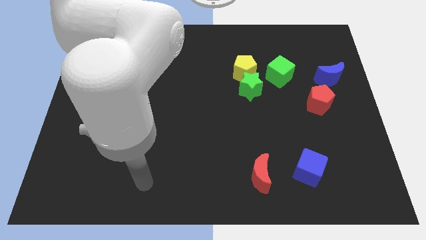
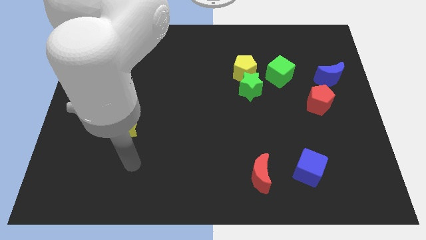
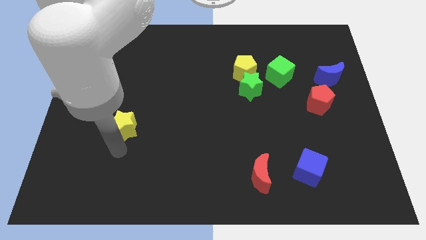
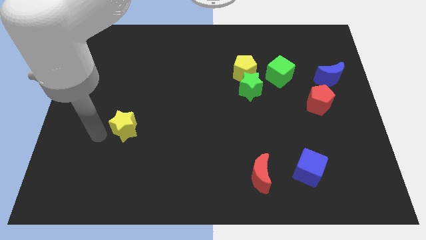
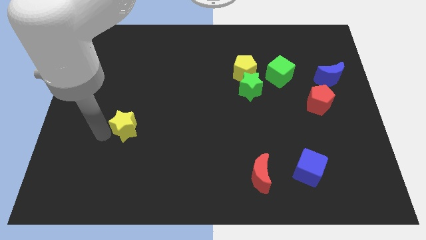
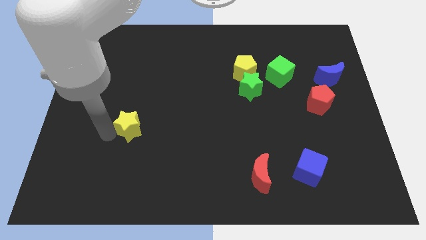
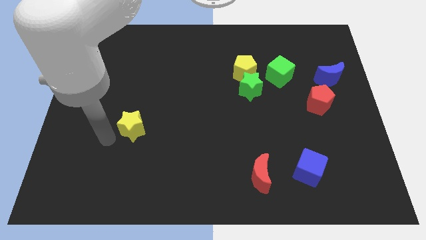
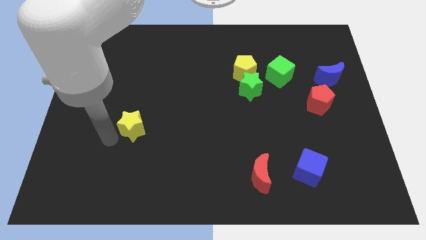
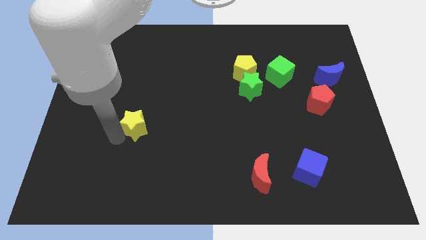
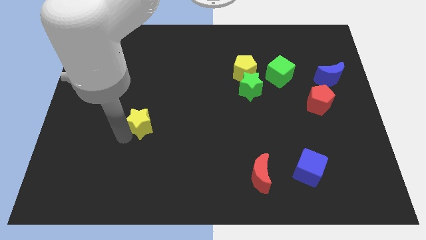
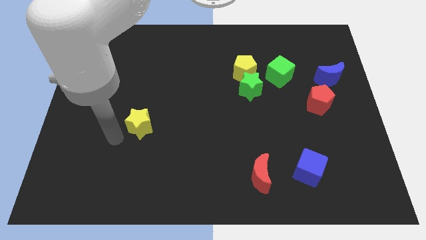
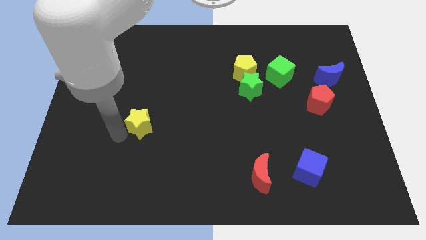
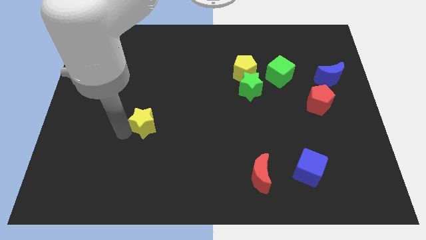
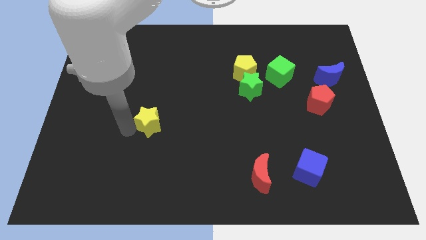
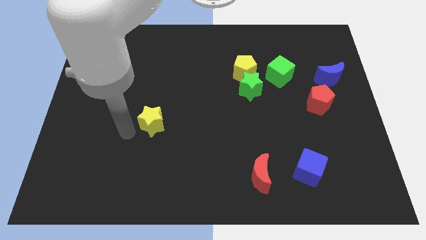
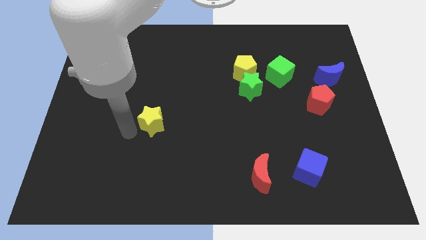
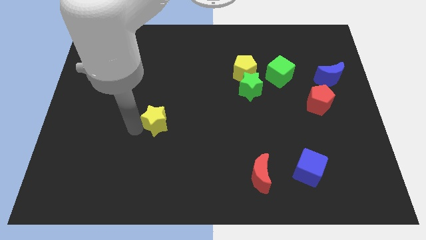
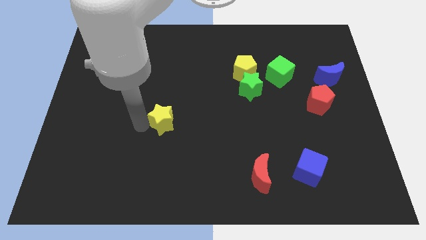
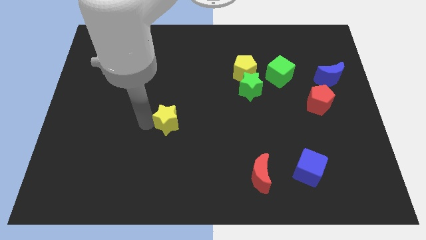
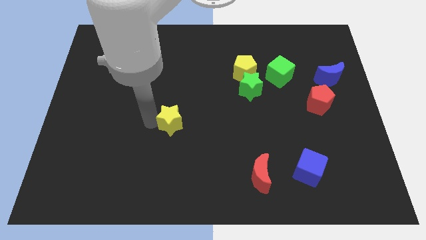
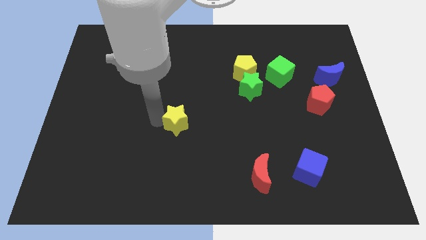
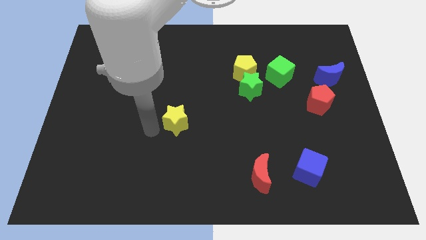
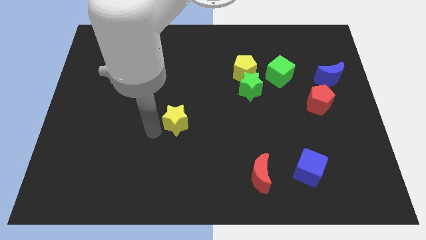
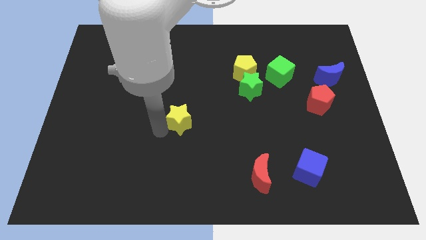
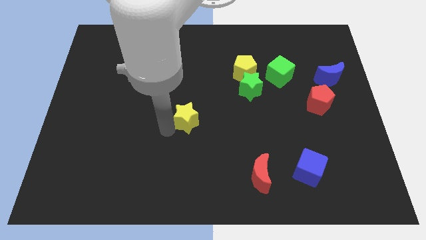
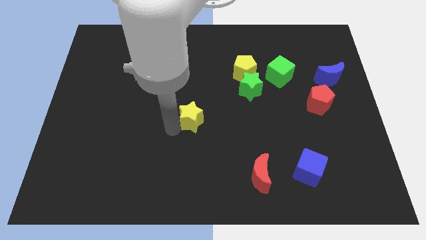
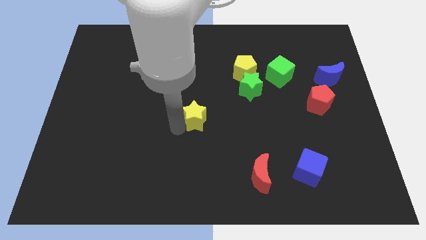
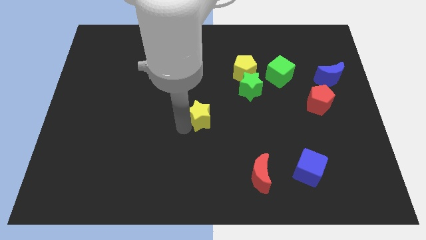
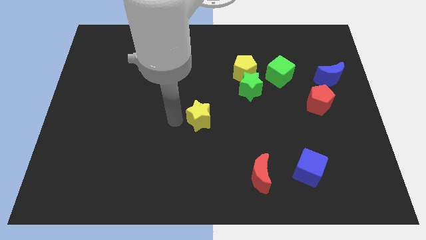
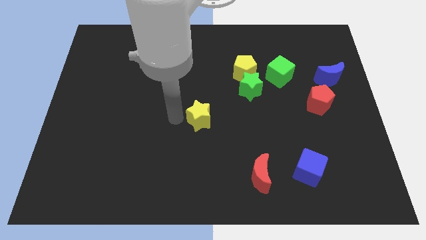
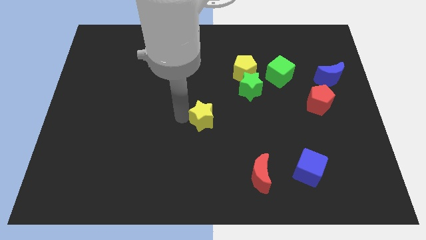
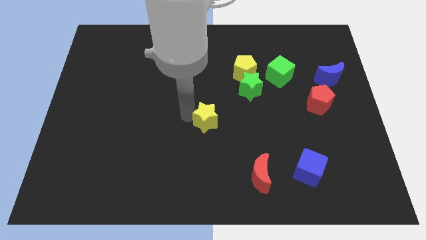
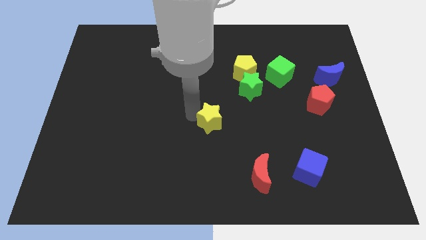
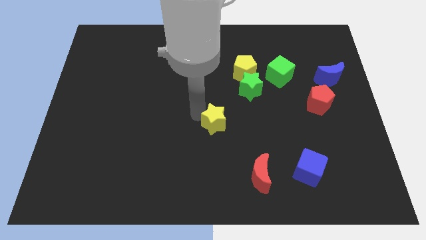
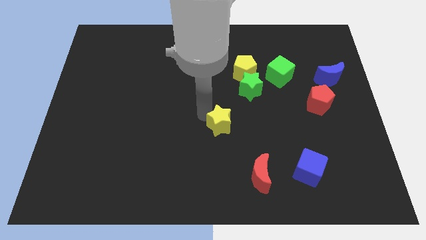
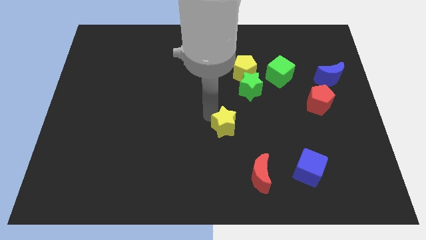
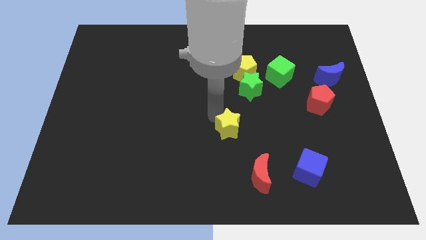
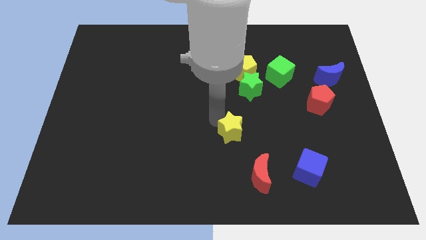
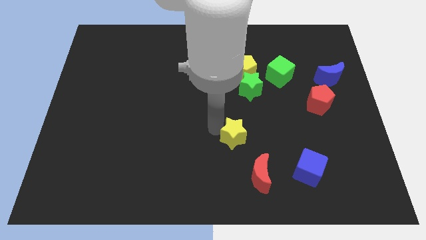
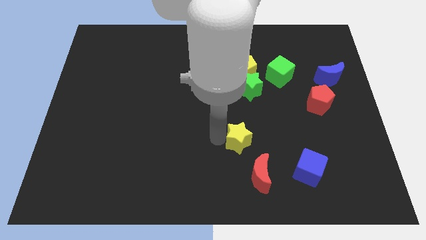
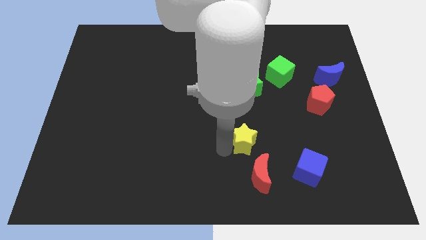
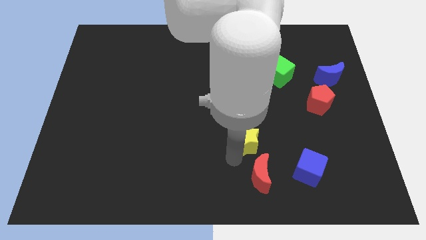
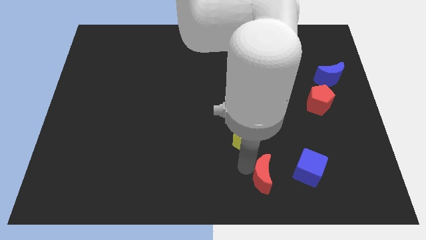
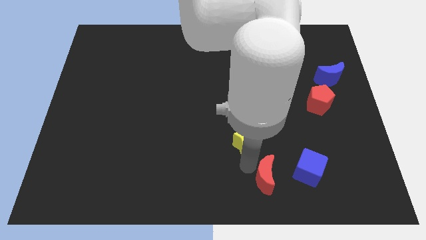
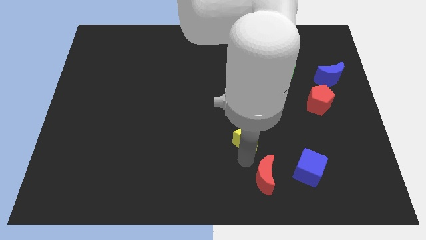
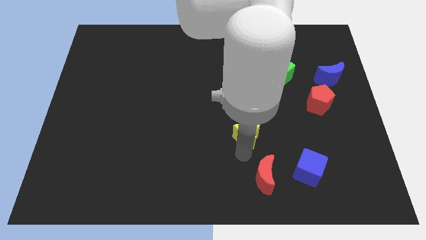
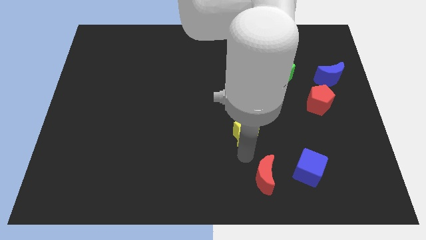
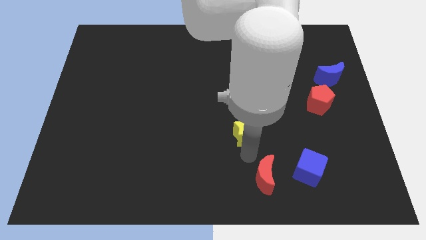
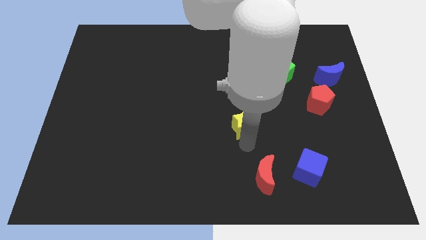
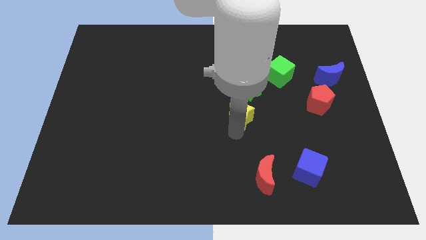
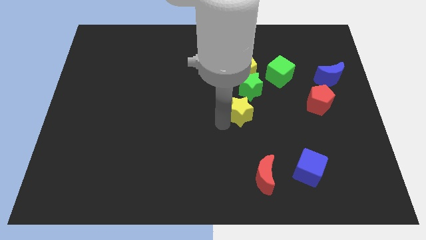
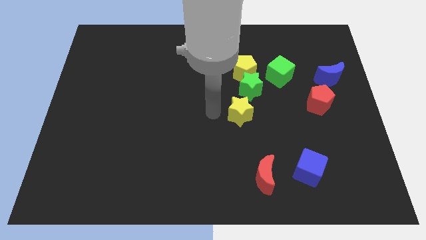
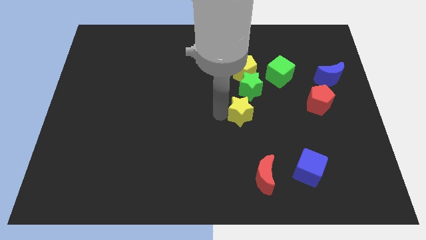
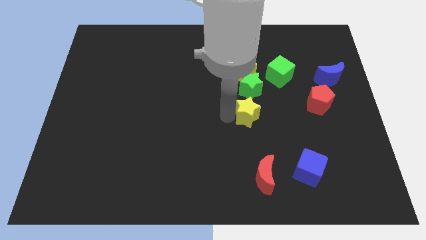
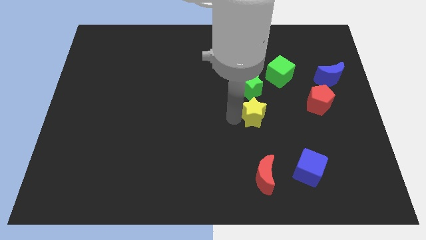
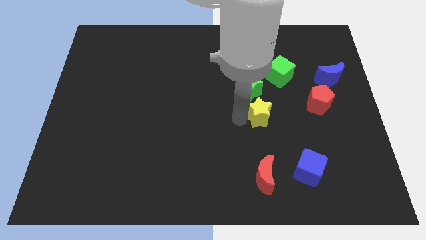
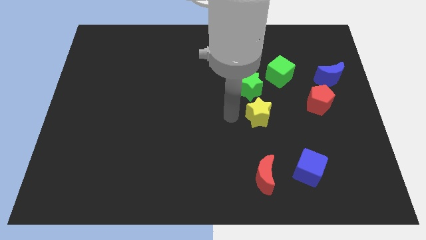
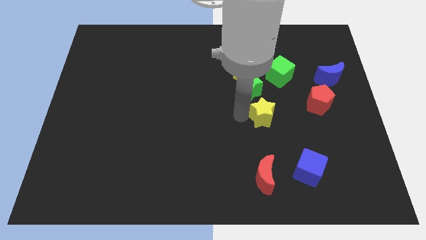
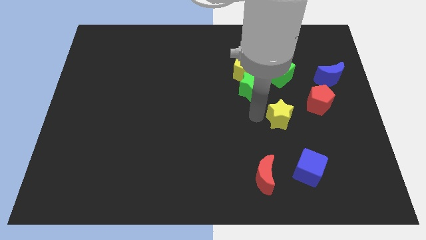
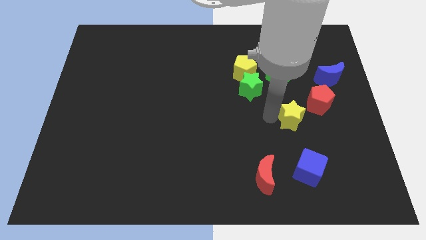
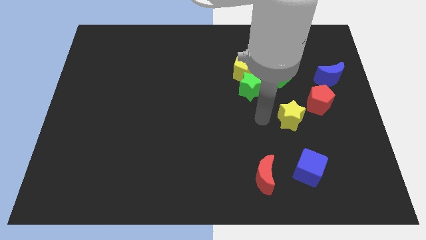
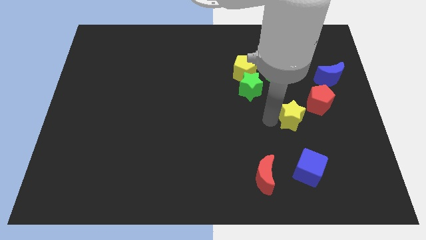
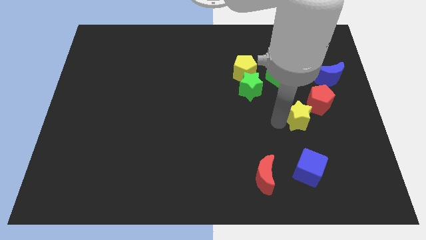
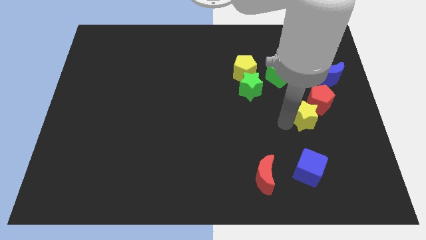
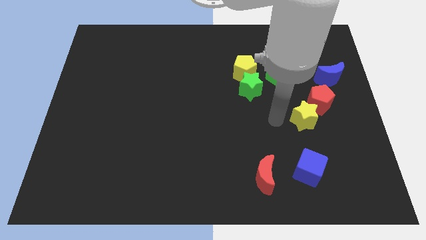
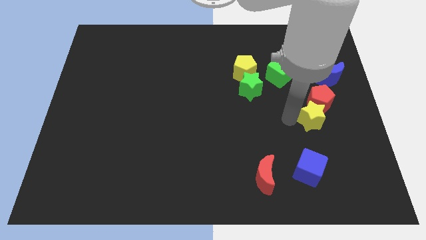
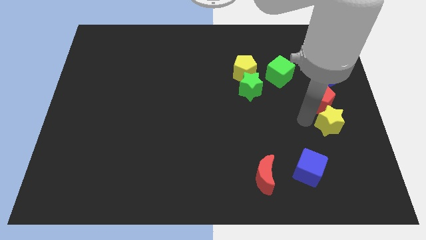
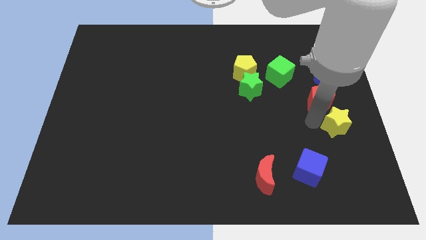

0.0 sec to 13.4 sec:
move the yellow star to the right side of the board
